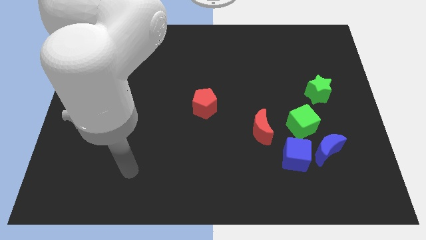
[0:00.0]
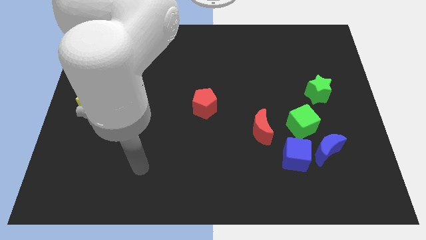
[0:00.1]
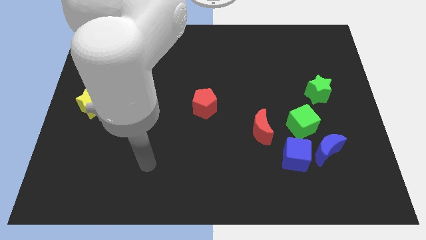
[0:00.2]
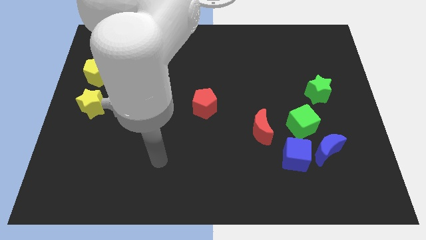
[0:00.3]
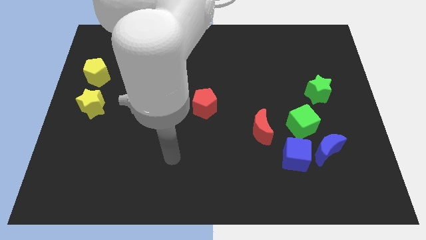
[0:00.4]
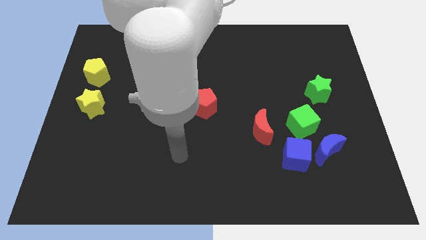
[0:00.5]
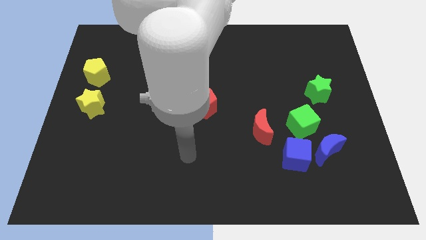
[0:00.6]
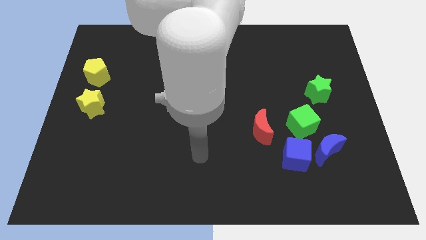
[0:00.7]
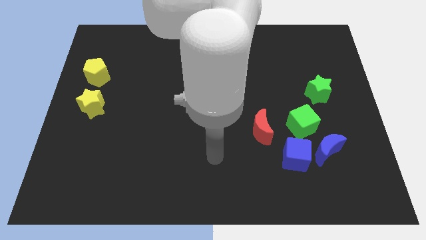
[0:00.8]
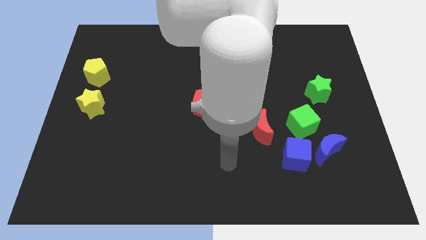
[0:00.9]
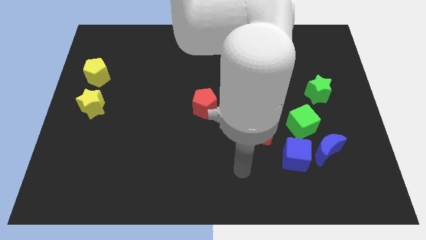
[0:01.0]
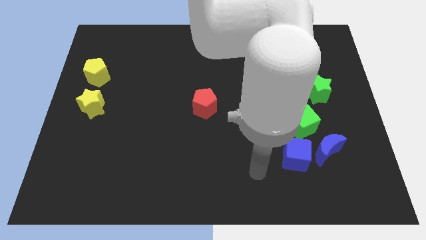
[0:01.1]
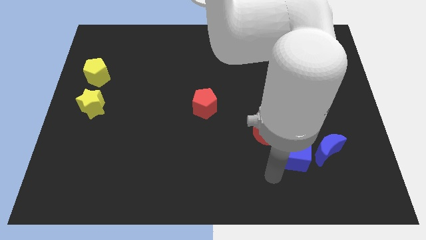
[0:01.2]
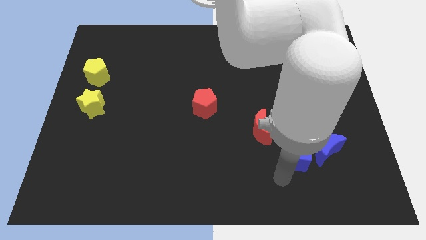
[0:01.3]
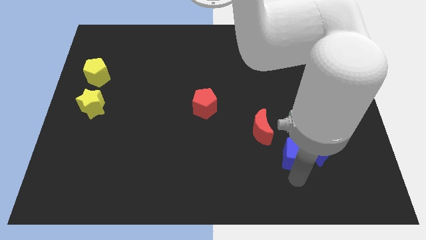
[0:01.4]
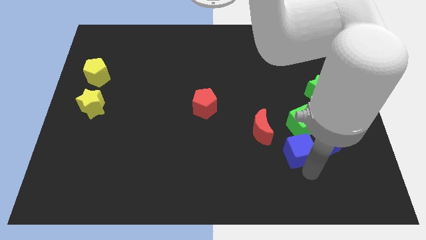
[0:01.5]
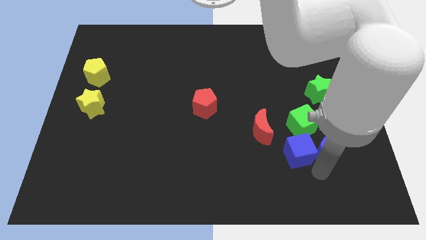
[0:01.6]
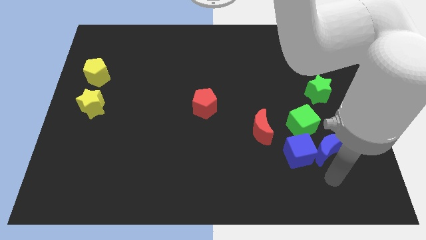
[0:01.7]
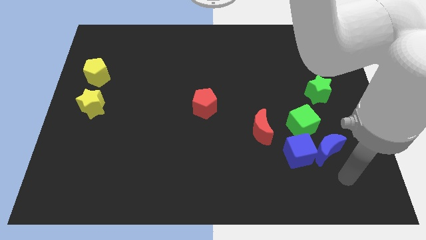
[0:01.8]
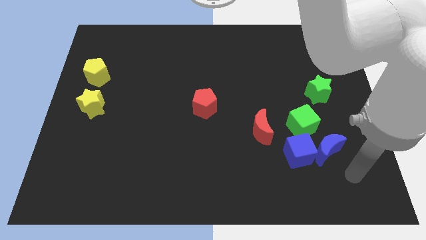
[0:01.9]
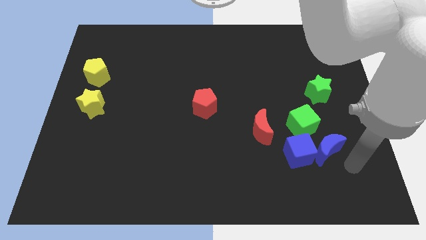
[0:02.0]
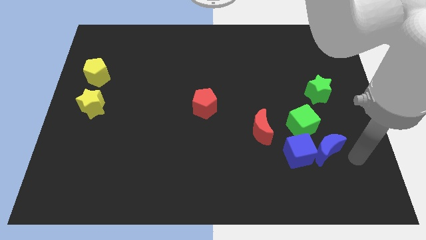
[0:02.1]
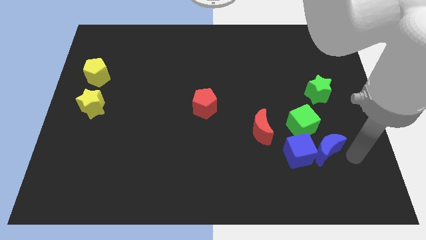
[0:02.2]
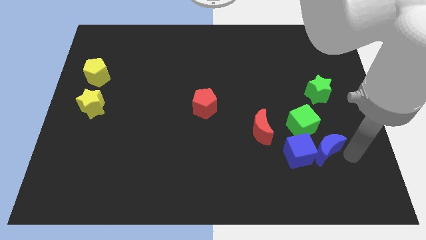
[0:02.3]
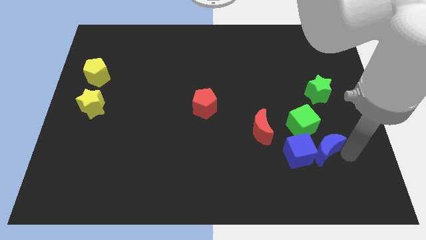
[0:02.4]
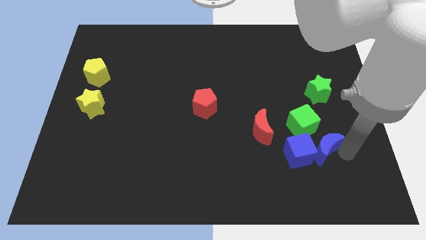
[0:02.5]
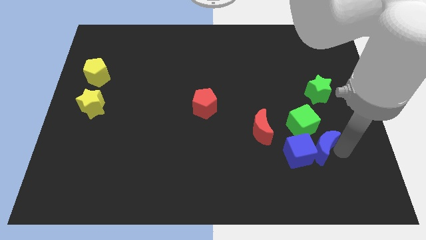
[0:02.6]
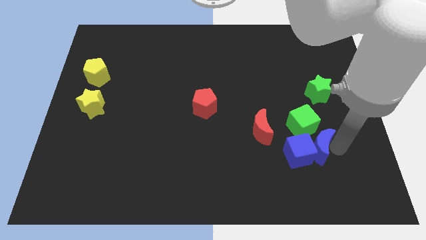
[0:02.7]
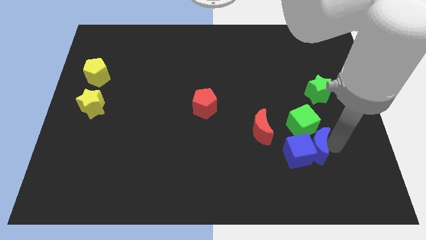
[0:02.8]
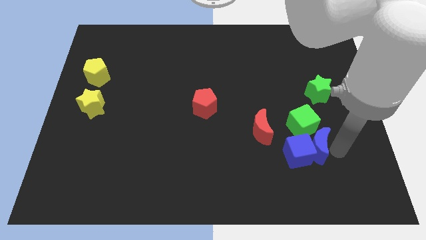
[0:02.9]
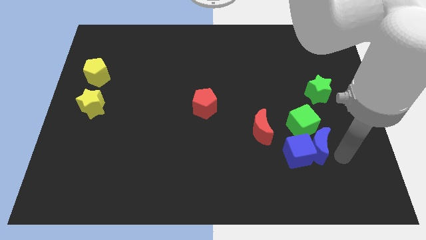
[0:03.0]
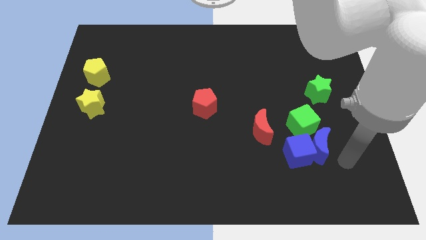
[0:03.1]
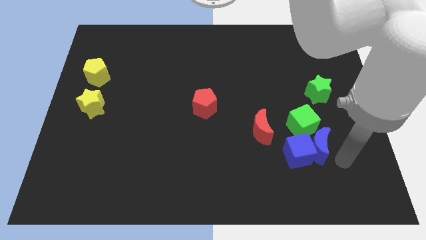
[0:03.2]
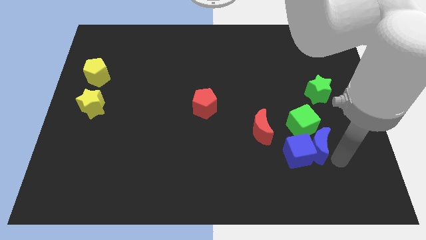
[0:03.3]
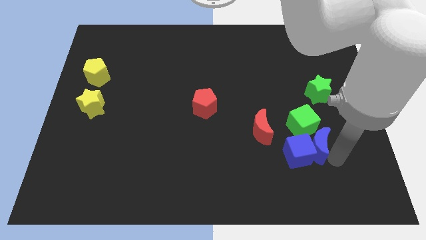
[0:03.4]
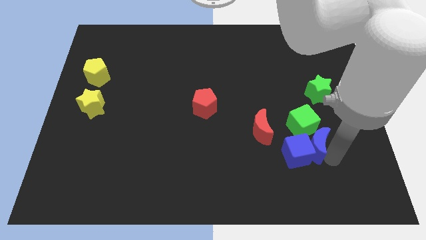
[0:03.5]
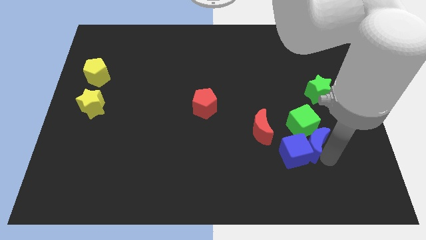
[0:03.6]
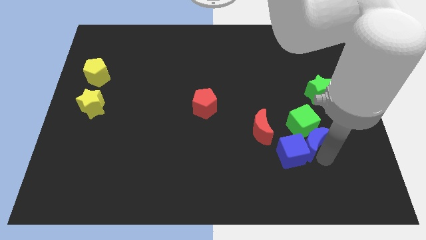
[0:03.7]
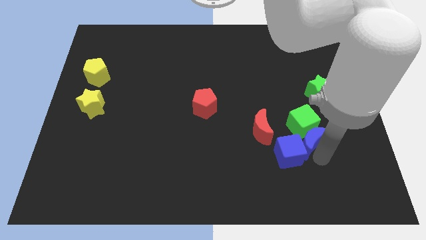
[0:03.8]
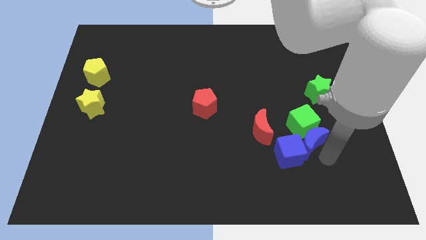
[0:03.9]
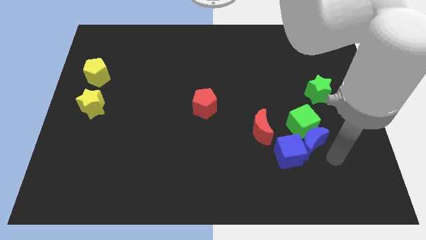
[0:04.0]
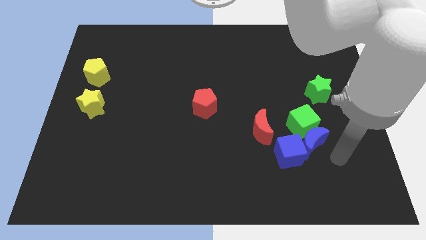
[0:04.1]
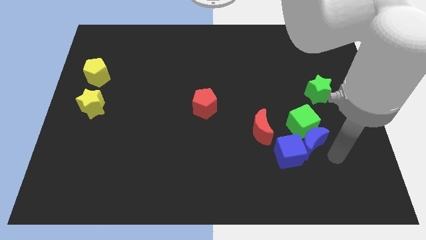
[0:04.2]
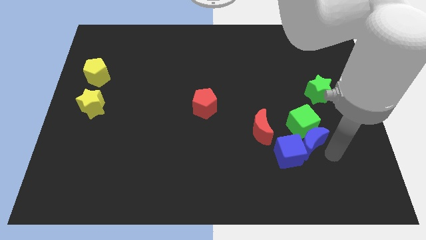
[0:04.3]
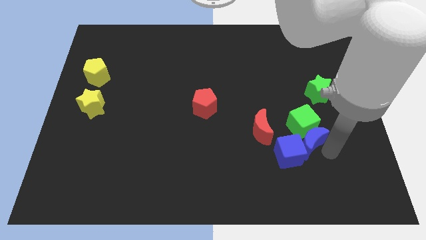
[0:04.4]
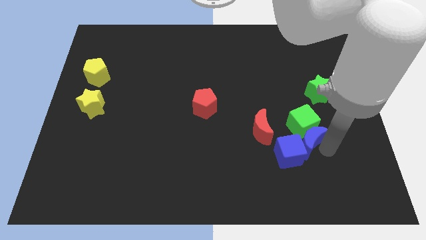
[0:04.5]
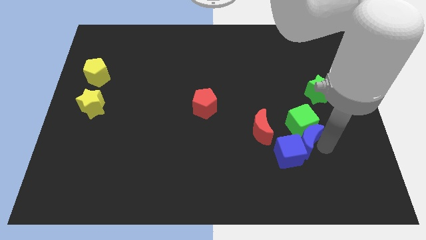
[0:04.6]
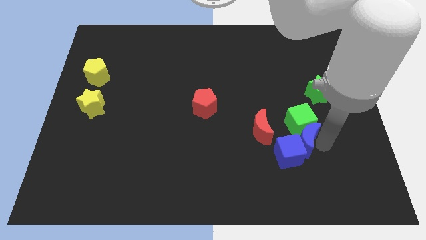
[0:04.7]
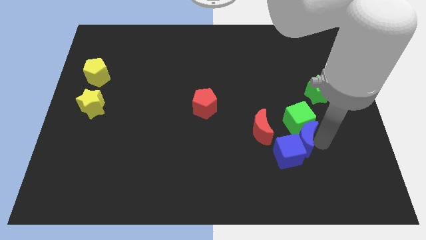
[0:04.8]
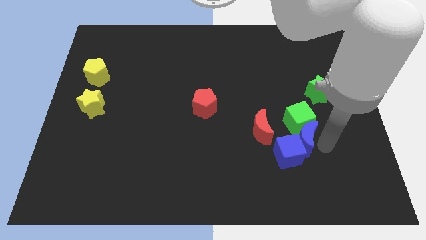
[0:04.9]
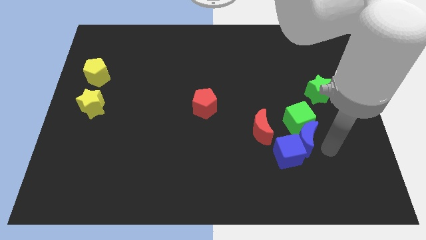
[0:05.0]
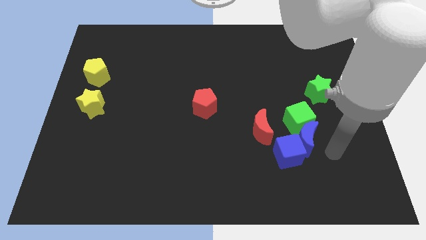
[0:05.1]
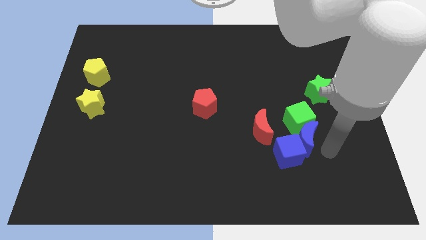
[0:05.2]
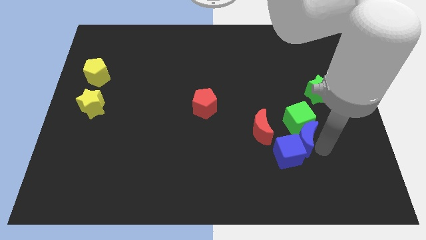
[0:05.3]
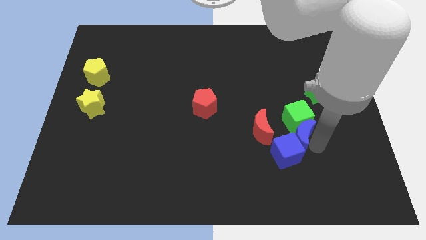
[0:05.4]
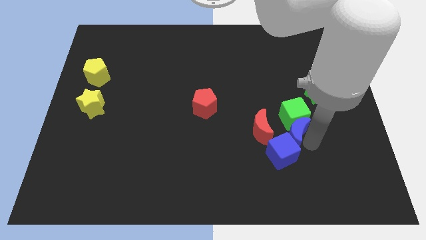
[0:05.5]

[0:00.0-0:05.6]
slide the blue moon slightly up and left

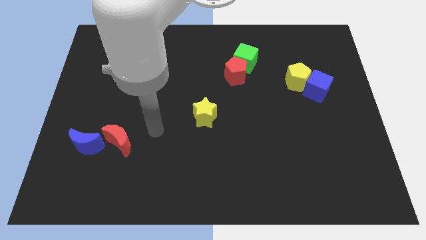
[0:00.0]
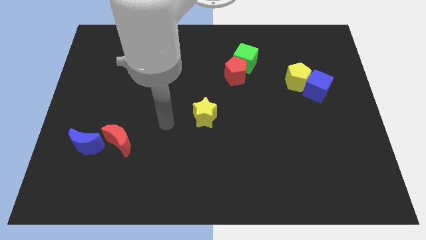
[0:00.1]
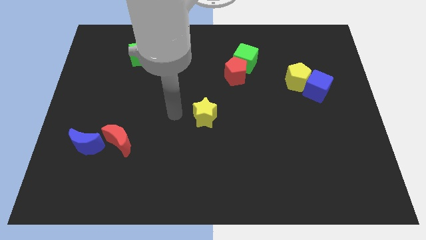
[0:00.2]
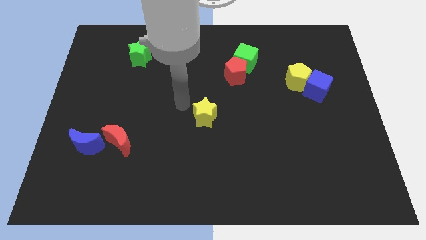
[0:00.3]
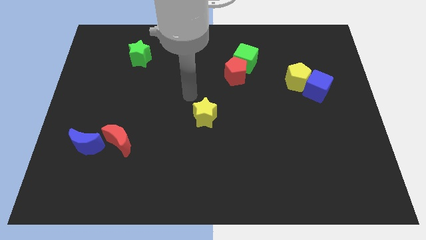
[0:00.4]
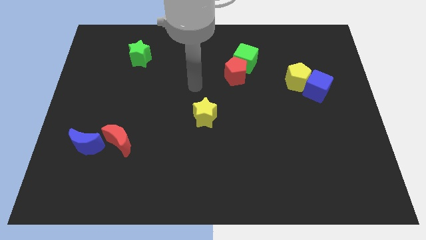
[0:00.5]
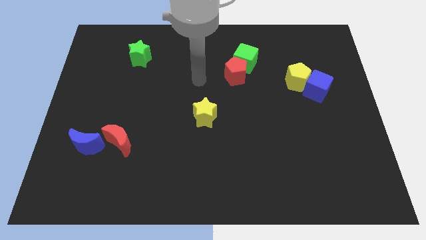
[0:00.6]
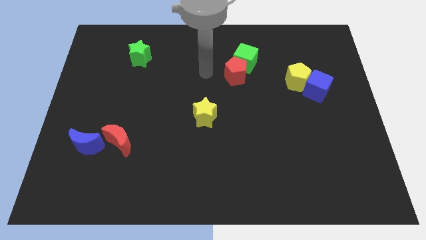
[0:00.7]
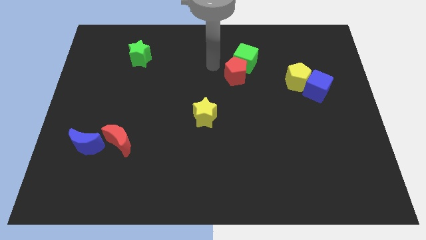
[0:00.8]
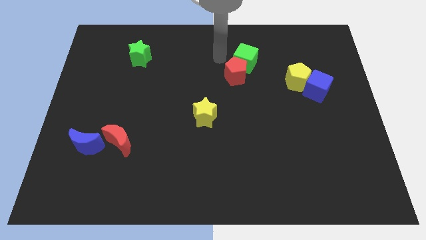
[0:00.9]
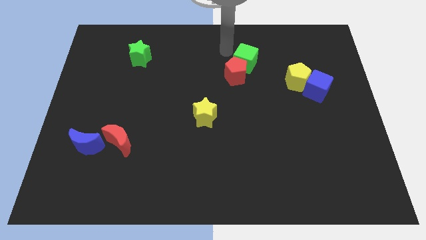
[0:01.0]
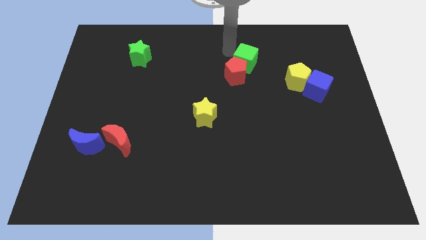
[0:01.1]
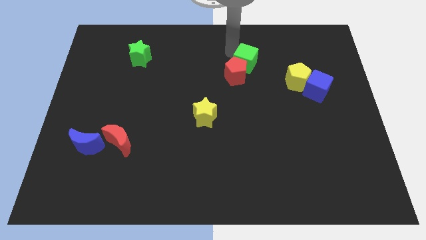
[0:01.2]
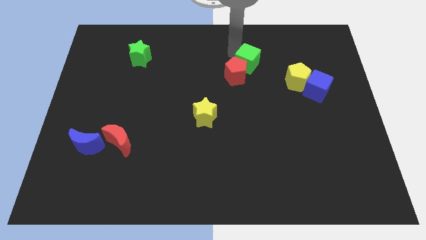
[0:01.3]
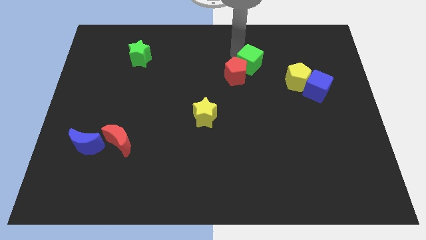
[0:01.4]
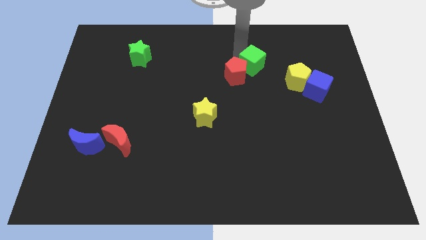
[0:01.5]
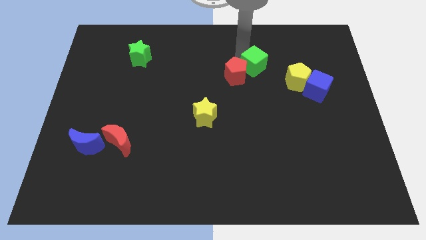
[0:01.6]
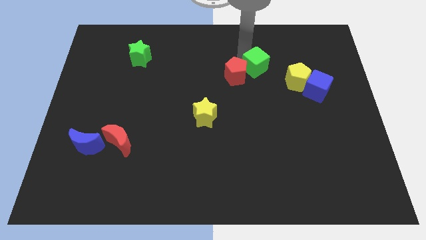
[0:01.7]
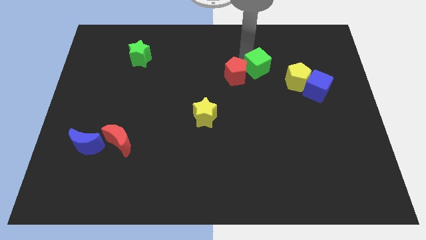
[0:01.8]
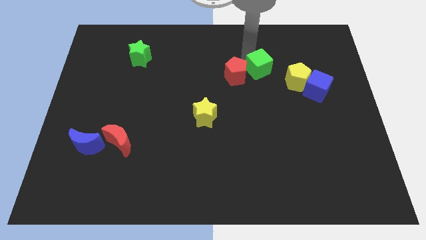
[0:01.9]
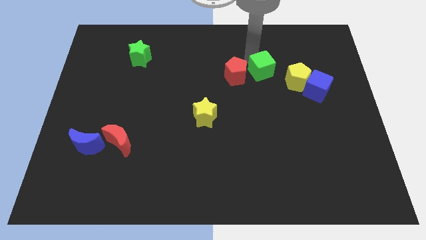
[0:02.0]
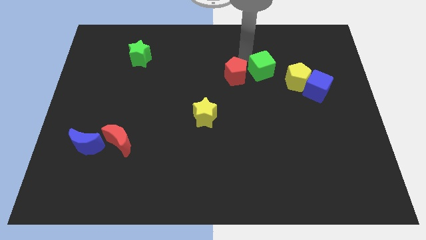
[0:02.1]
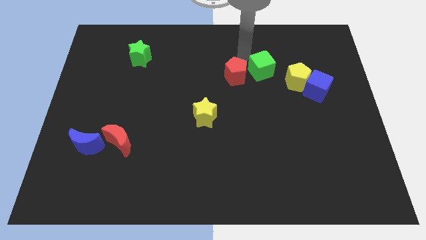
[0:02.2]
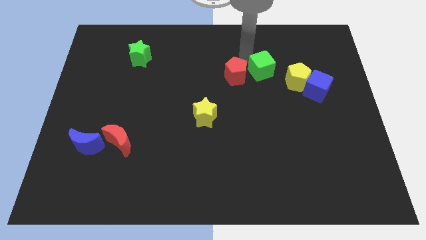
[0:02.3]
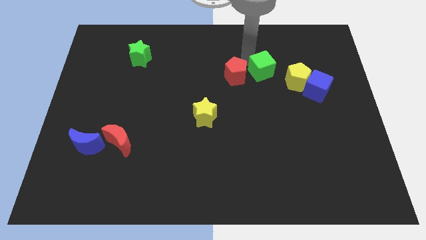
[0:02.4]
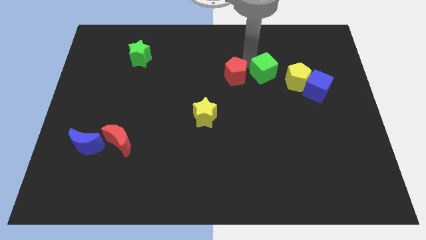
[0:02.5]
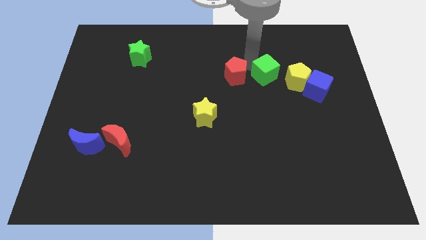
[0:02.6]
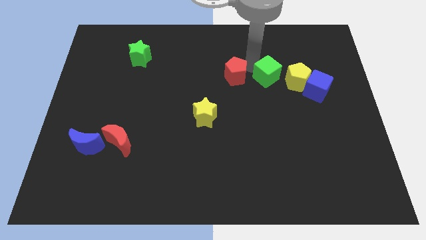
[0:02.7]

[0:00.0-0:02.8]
slightly move the green cube down and then right

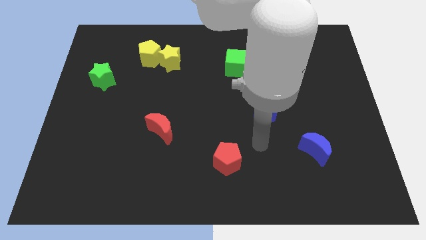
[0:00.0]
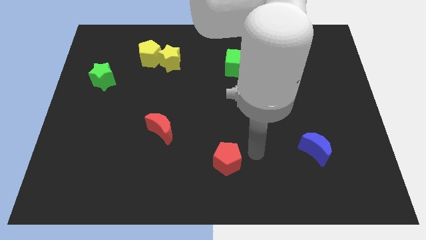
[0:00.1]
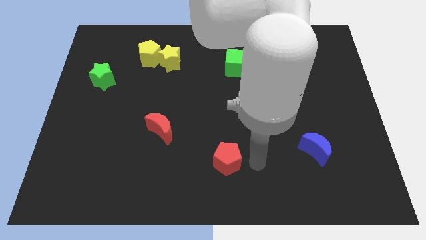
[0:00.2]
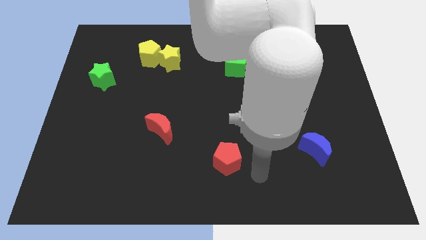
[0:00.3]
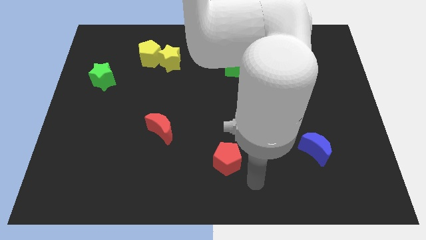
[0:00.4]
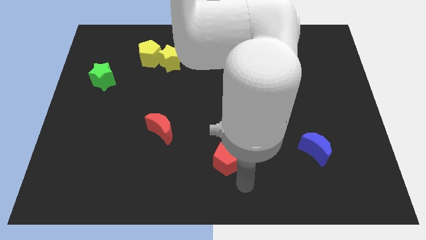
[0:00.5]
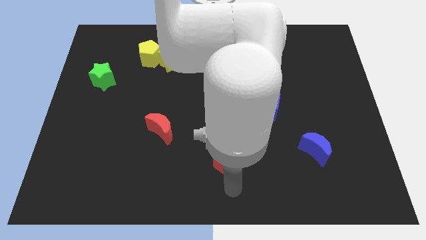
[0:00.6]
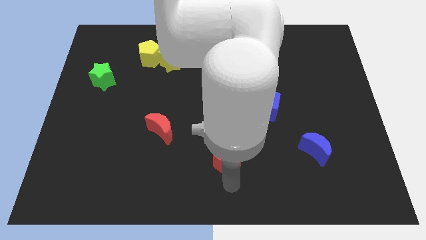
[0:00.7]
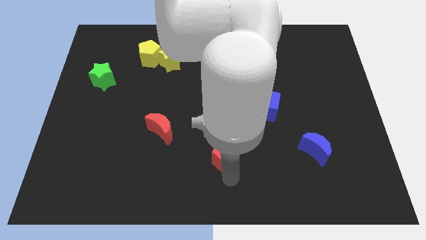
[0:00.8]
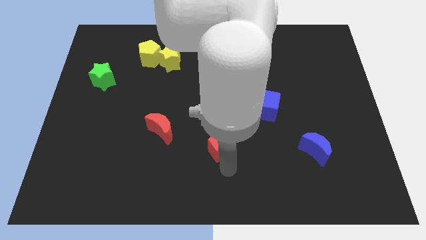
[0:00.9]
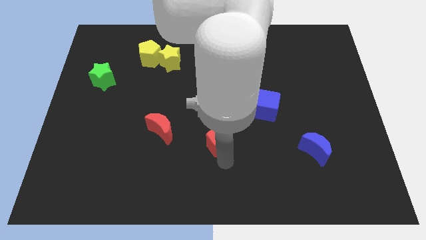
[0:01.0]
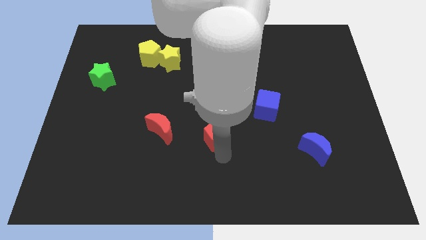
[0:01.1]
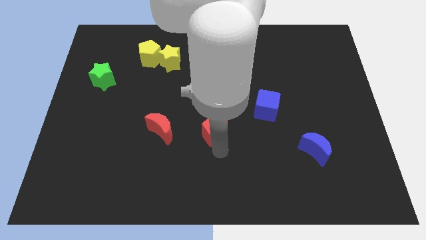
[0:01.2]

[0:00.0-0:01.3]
slide the red pentagon up somewhat
